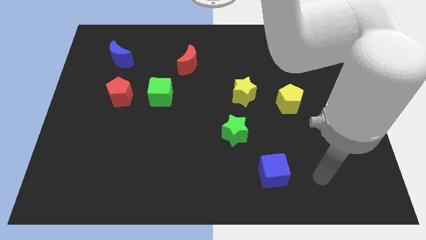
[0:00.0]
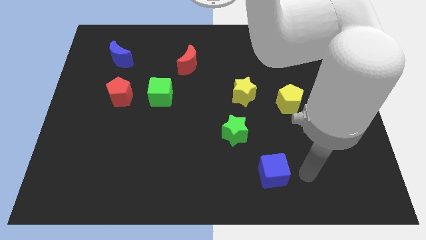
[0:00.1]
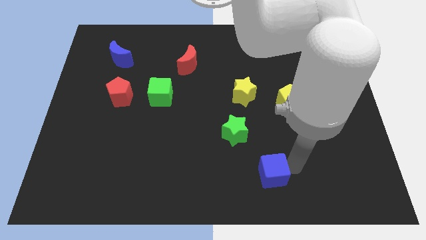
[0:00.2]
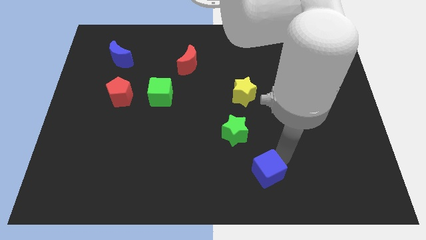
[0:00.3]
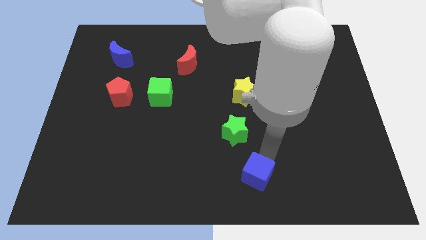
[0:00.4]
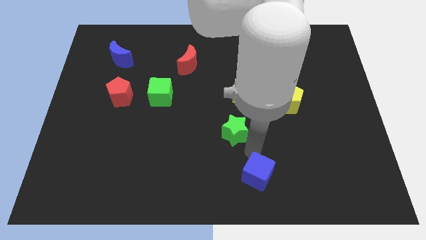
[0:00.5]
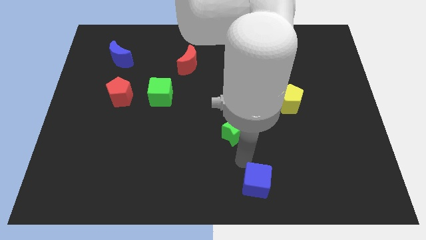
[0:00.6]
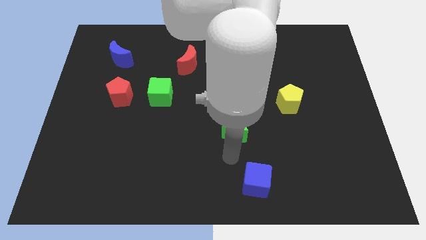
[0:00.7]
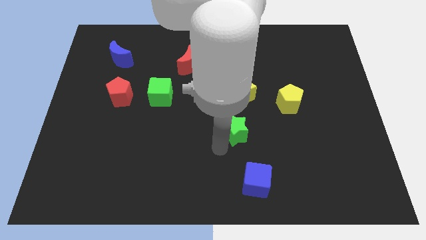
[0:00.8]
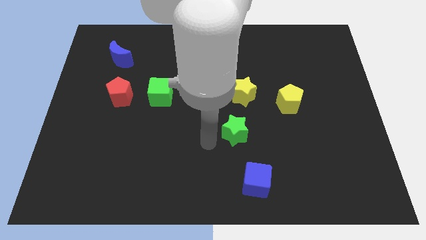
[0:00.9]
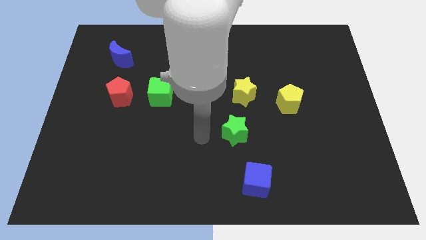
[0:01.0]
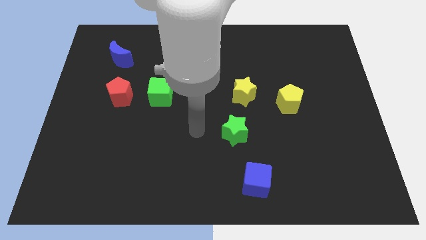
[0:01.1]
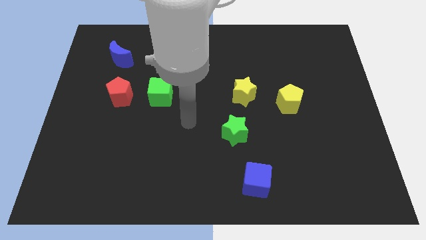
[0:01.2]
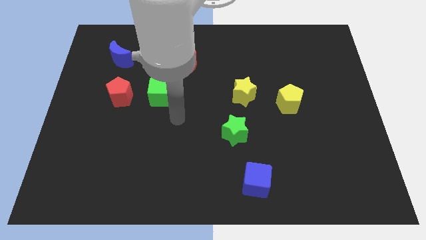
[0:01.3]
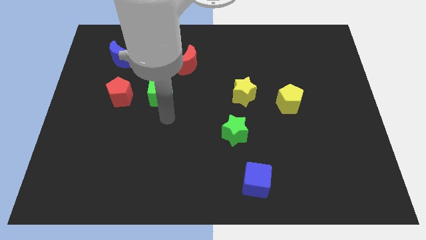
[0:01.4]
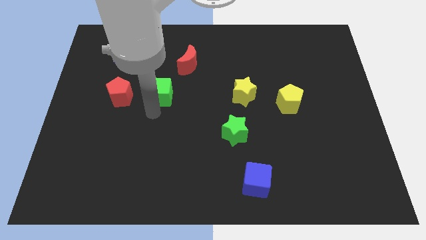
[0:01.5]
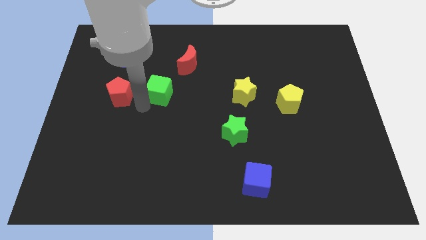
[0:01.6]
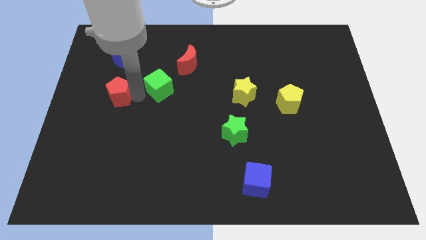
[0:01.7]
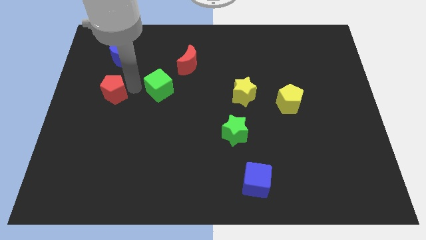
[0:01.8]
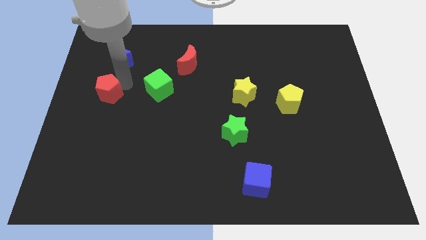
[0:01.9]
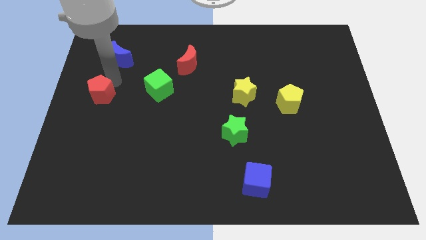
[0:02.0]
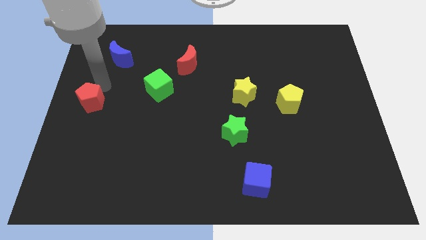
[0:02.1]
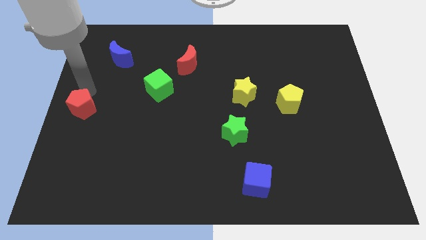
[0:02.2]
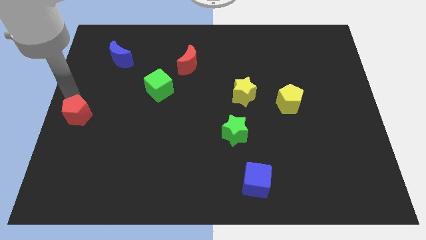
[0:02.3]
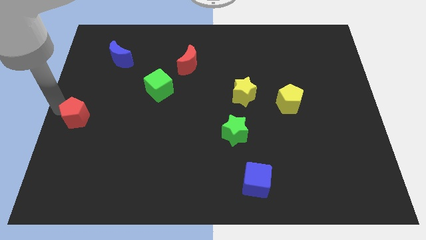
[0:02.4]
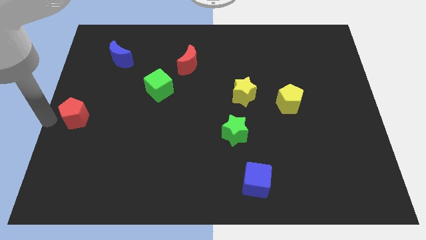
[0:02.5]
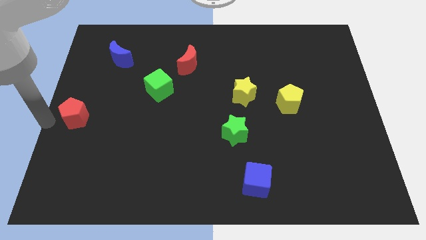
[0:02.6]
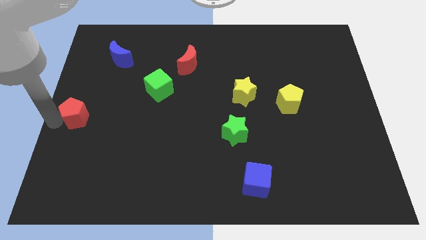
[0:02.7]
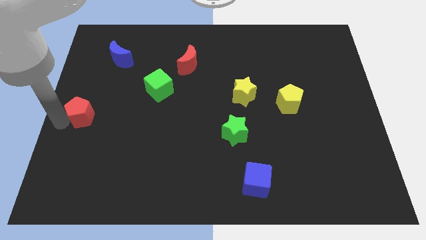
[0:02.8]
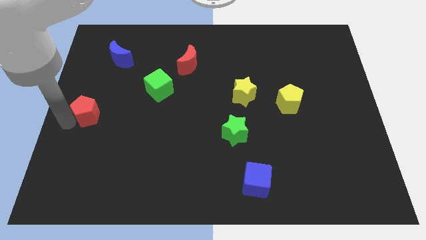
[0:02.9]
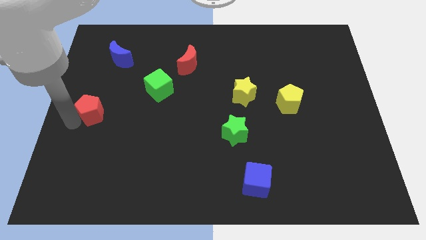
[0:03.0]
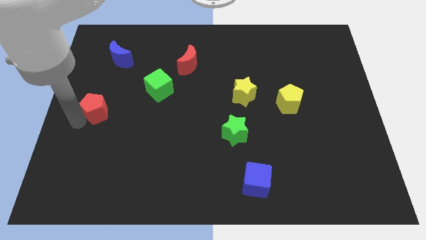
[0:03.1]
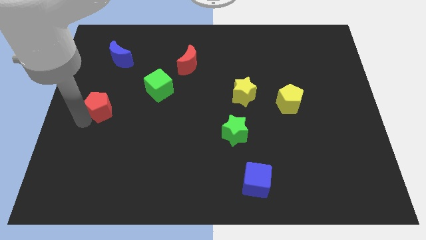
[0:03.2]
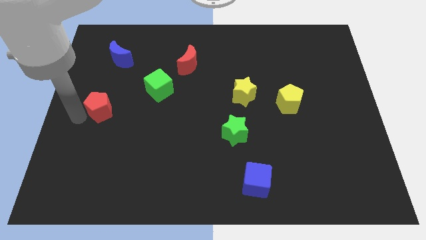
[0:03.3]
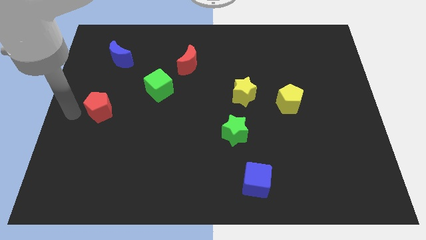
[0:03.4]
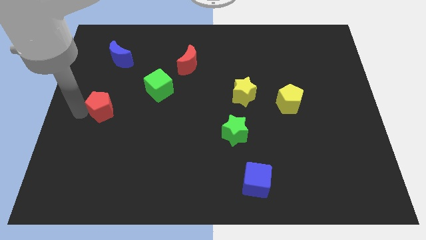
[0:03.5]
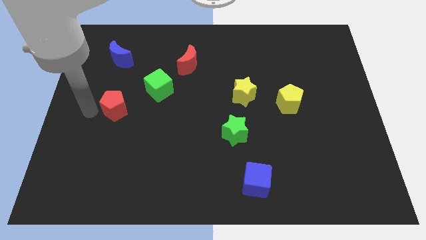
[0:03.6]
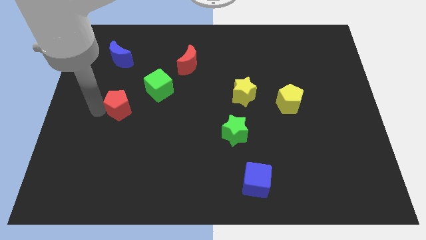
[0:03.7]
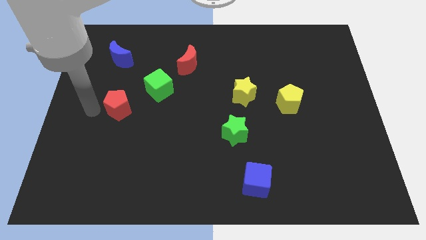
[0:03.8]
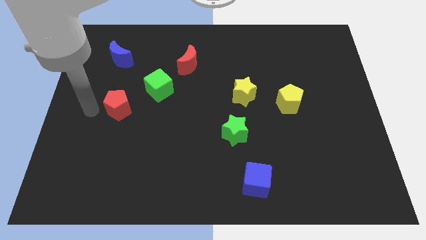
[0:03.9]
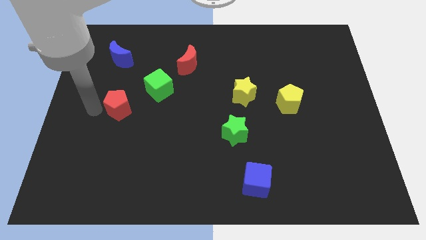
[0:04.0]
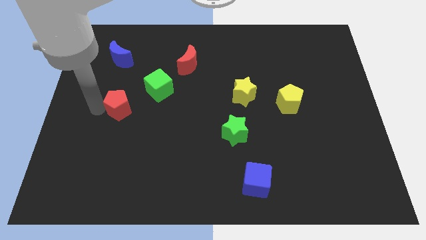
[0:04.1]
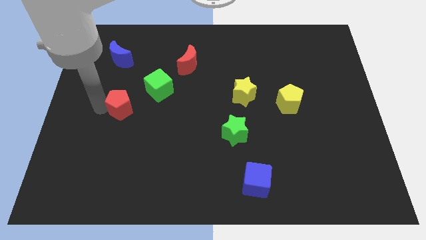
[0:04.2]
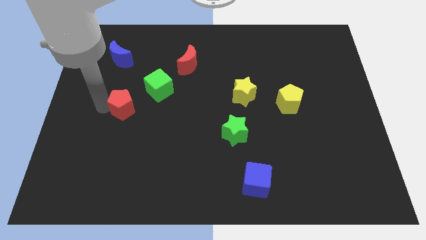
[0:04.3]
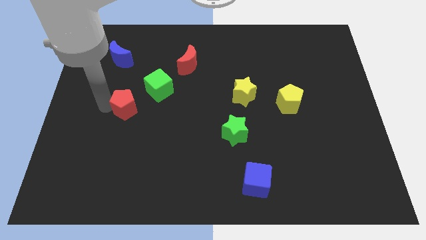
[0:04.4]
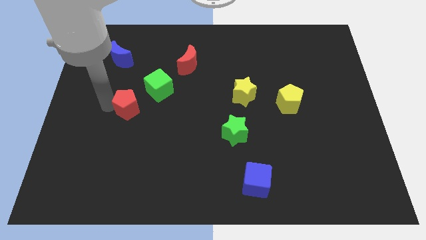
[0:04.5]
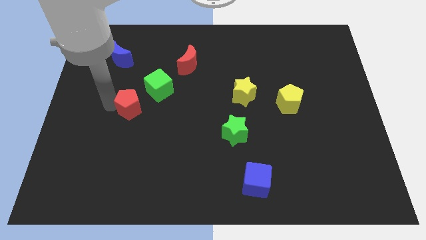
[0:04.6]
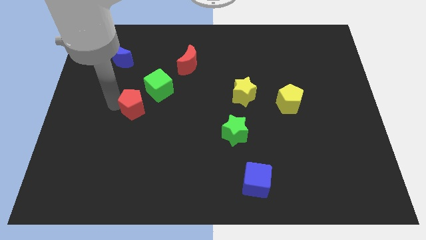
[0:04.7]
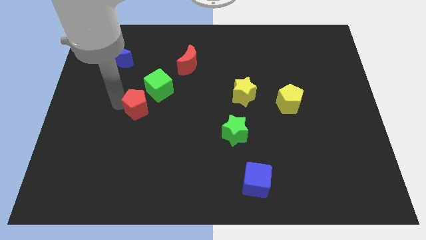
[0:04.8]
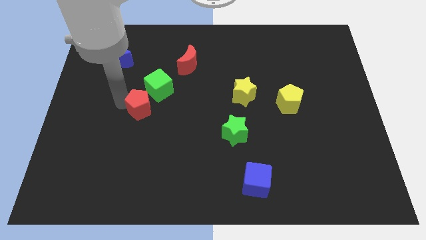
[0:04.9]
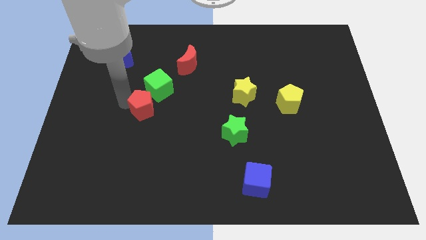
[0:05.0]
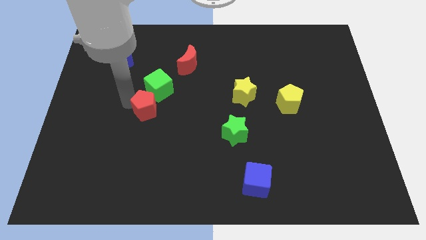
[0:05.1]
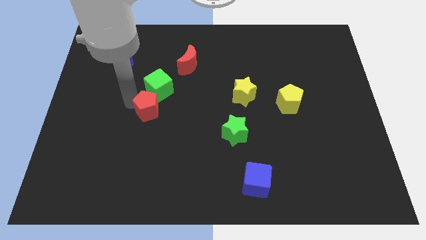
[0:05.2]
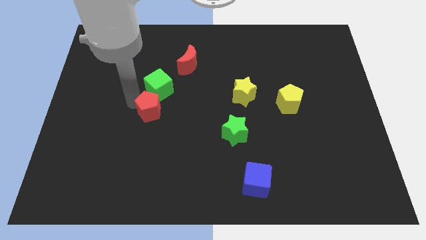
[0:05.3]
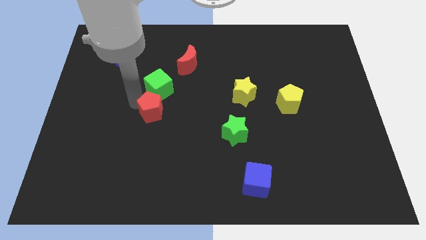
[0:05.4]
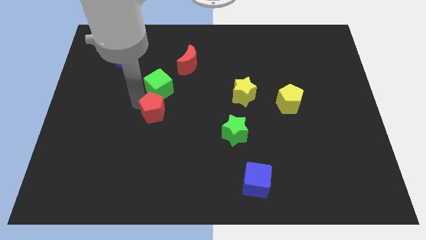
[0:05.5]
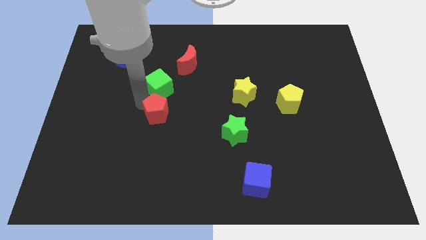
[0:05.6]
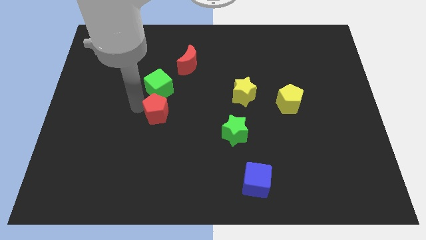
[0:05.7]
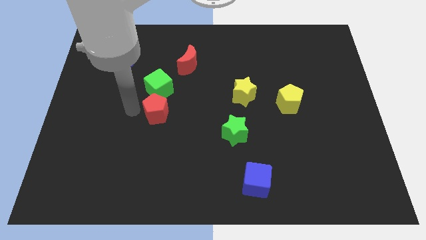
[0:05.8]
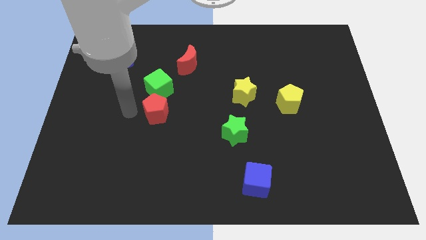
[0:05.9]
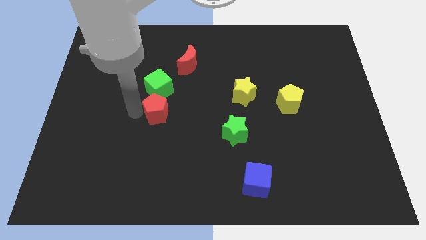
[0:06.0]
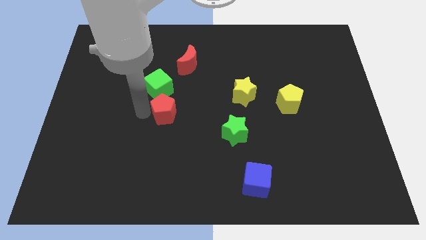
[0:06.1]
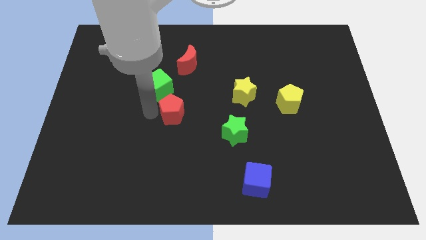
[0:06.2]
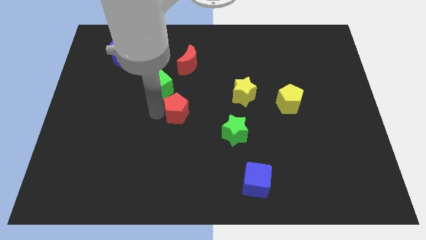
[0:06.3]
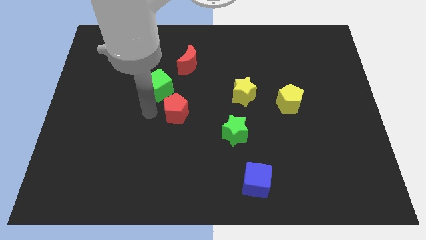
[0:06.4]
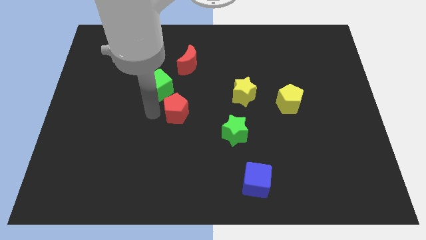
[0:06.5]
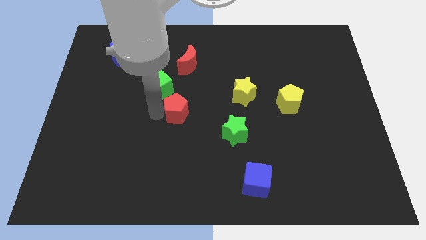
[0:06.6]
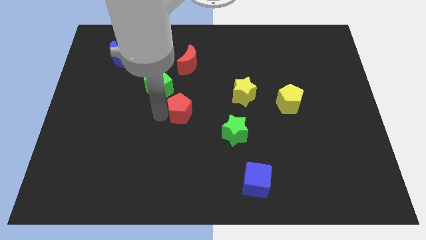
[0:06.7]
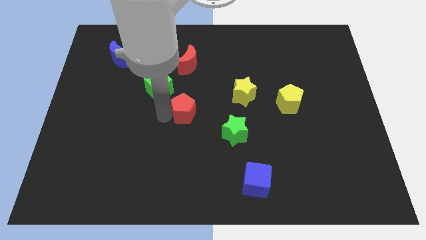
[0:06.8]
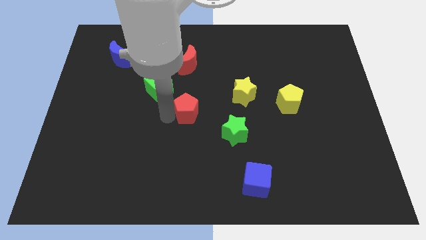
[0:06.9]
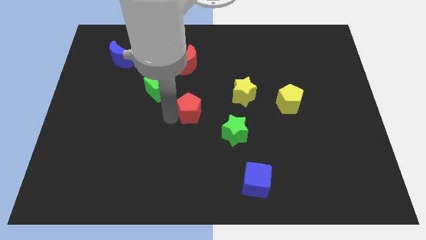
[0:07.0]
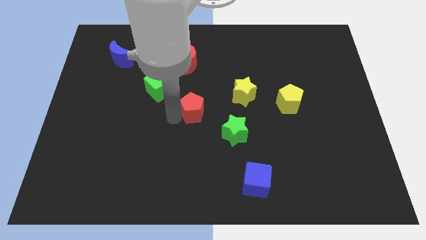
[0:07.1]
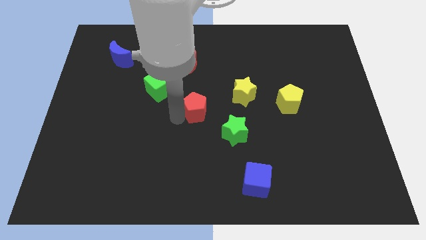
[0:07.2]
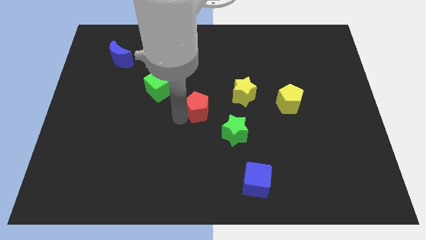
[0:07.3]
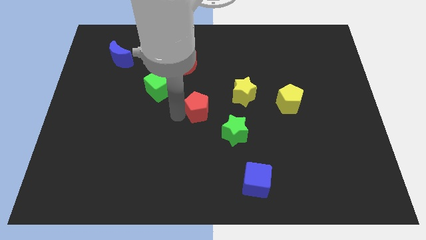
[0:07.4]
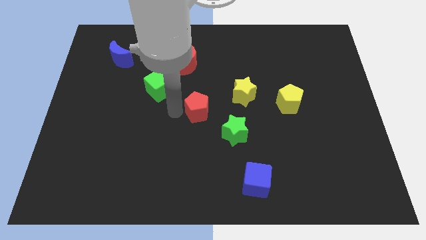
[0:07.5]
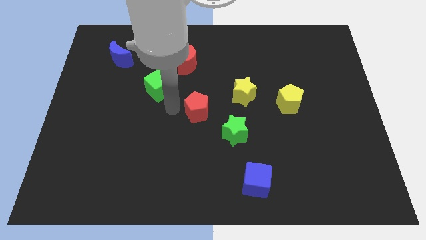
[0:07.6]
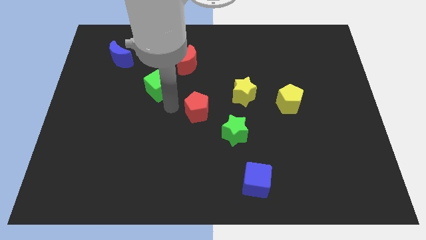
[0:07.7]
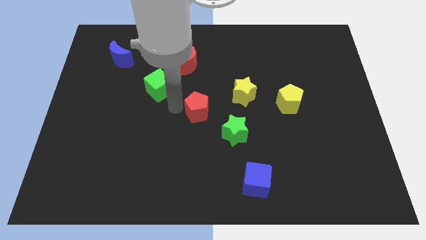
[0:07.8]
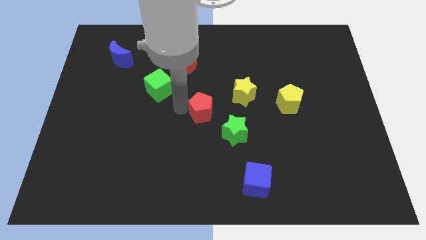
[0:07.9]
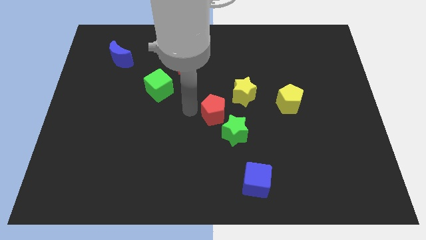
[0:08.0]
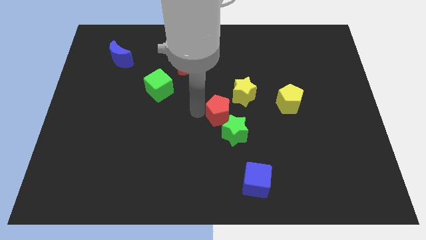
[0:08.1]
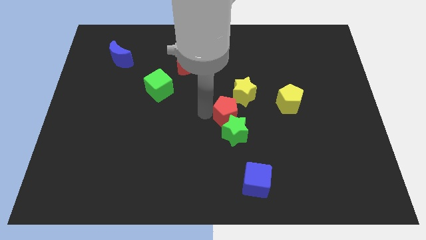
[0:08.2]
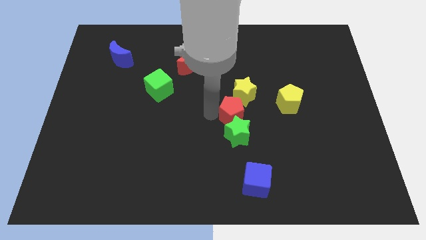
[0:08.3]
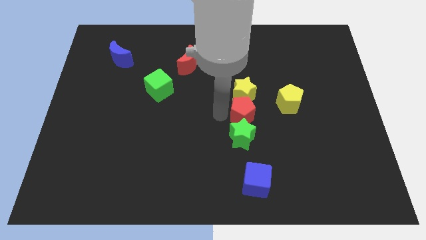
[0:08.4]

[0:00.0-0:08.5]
slide the red pentagon diagonally down and to the right of the yellow star
